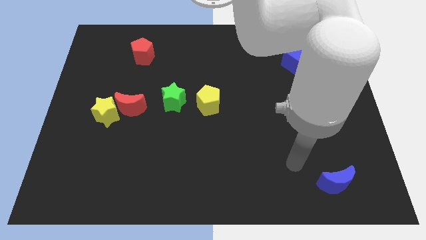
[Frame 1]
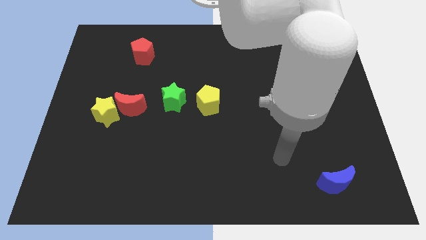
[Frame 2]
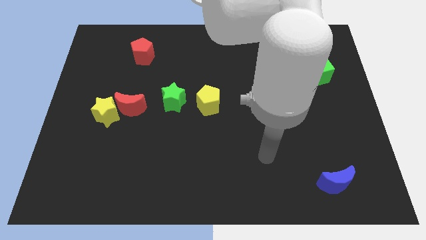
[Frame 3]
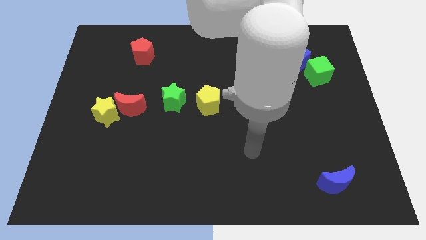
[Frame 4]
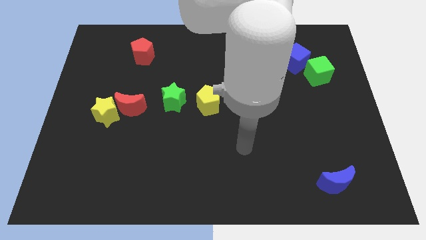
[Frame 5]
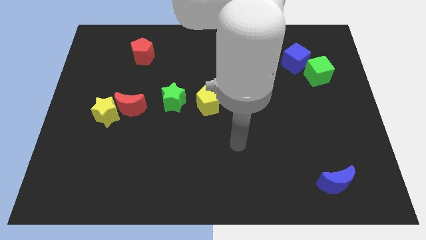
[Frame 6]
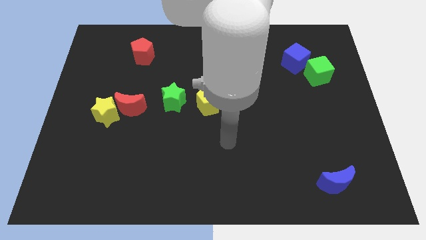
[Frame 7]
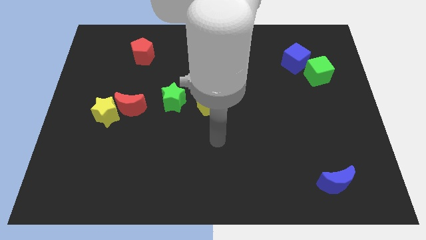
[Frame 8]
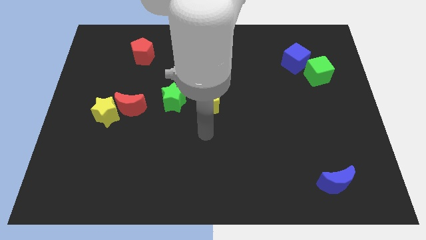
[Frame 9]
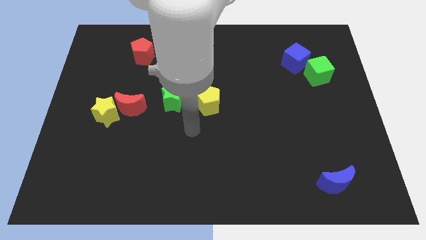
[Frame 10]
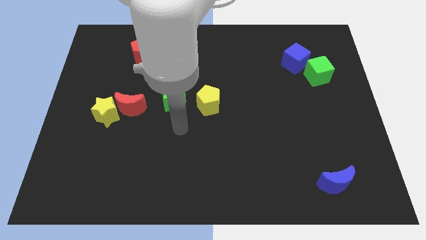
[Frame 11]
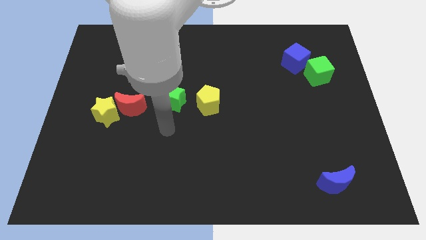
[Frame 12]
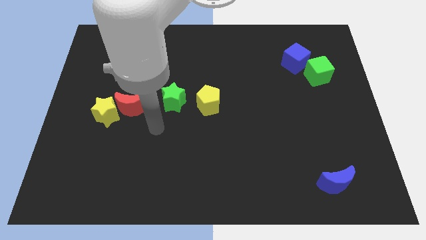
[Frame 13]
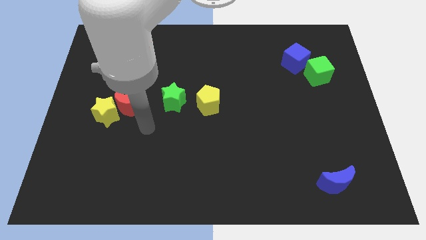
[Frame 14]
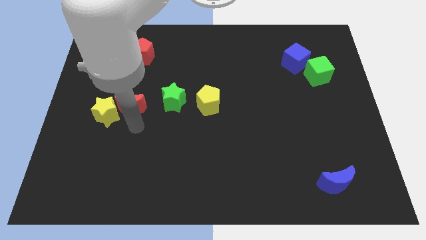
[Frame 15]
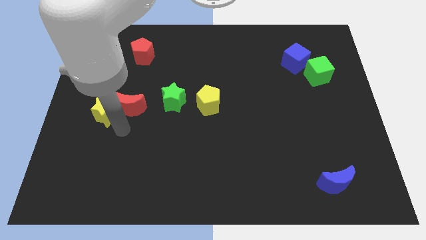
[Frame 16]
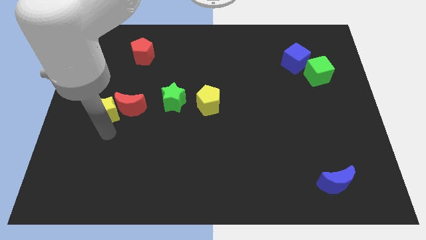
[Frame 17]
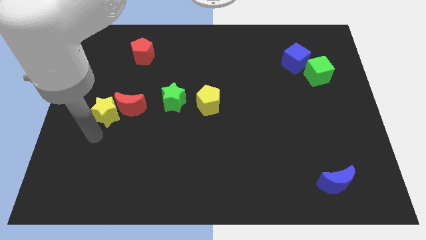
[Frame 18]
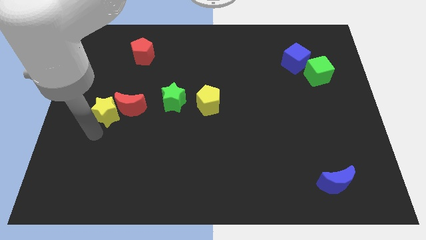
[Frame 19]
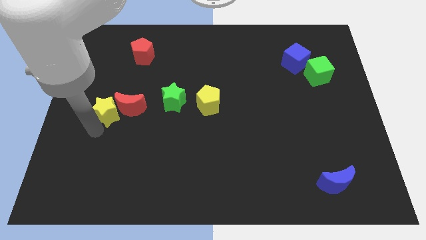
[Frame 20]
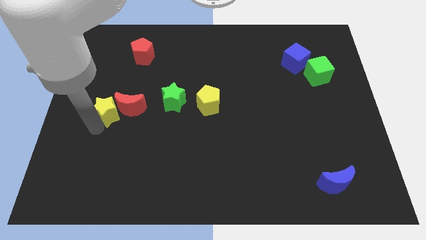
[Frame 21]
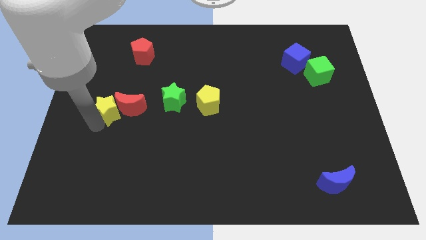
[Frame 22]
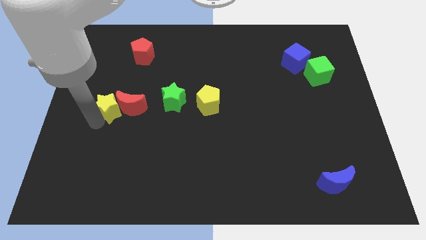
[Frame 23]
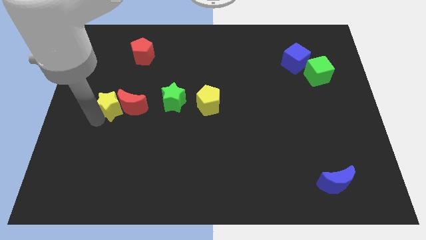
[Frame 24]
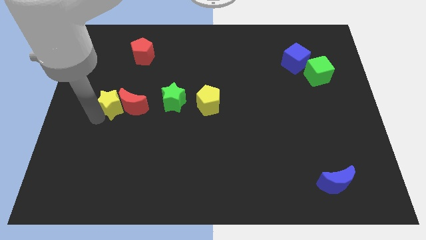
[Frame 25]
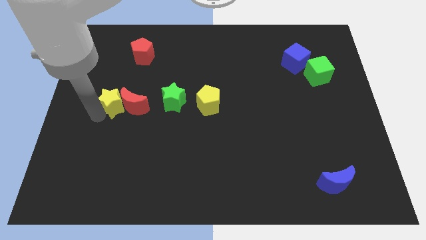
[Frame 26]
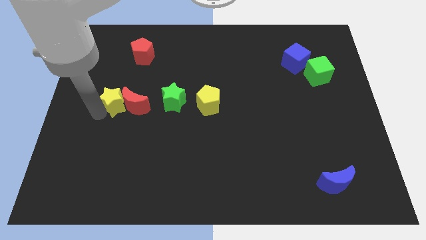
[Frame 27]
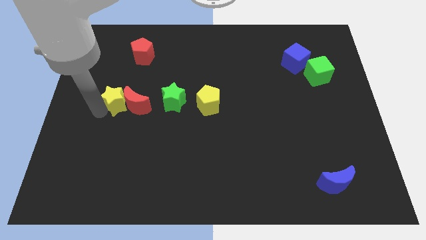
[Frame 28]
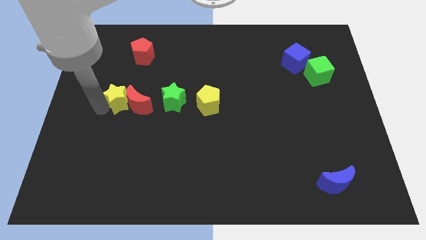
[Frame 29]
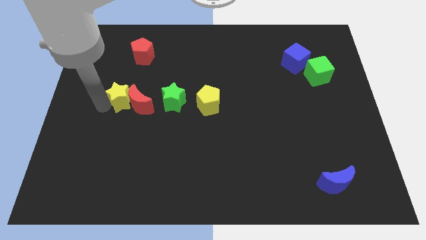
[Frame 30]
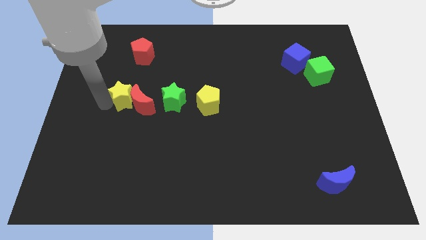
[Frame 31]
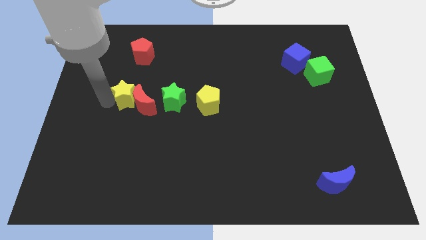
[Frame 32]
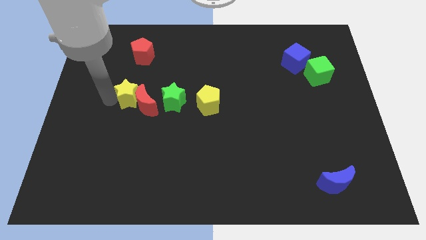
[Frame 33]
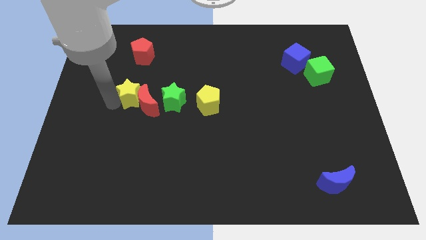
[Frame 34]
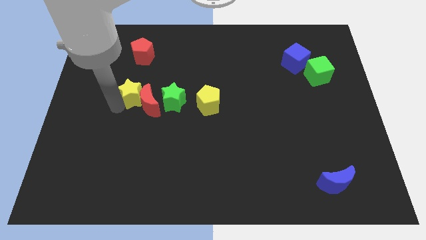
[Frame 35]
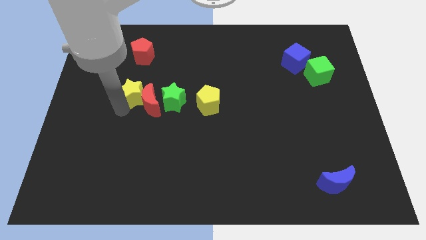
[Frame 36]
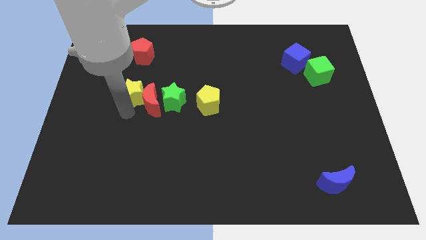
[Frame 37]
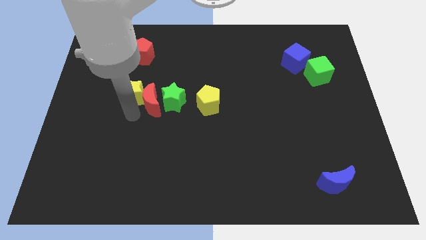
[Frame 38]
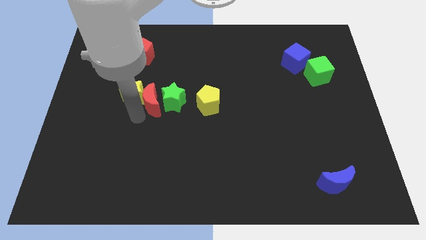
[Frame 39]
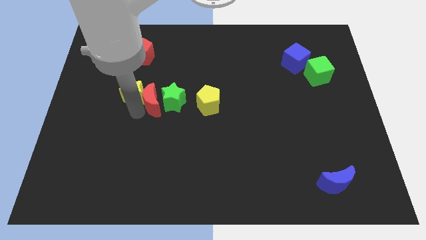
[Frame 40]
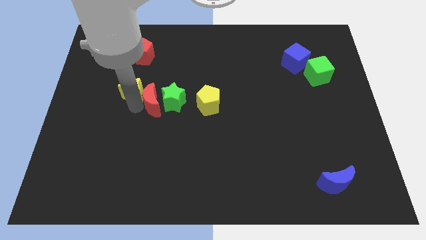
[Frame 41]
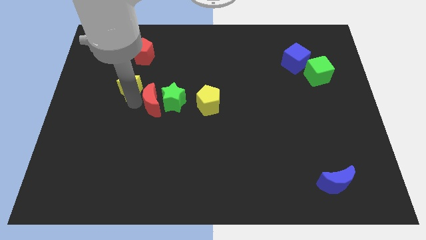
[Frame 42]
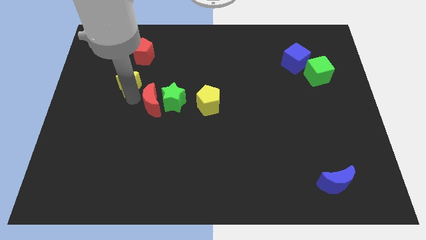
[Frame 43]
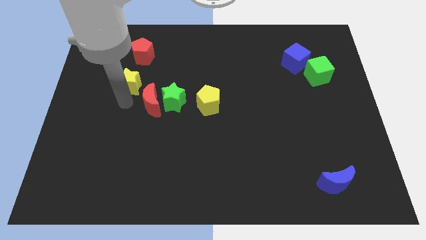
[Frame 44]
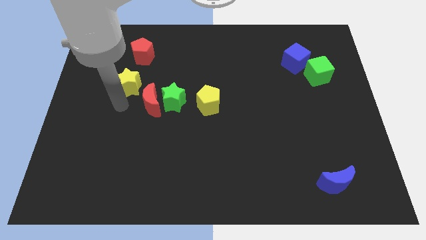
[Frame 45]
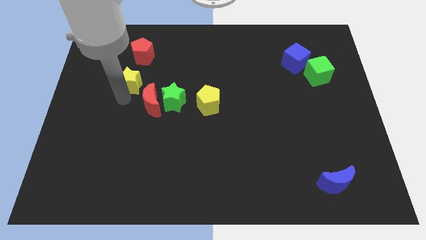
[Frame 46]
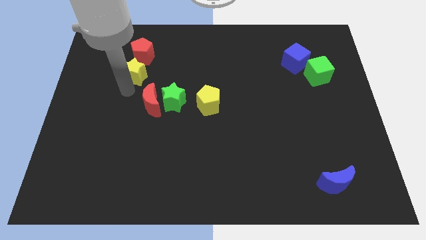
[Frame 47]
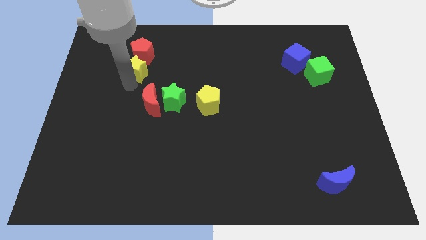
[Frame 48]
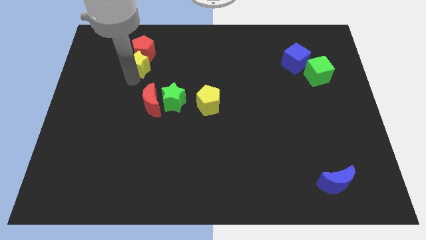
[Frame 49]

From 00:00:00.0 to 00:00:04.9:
put the yellow star to the red pentagon

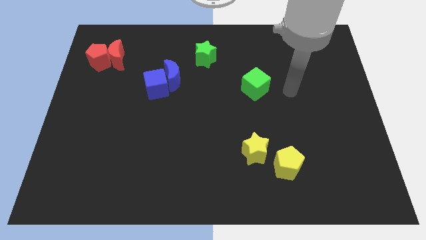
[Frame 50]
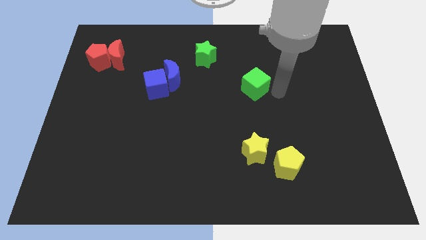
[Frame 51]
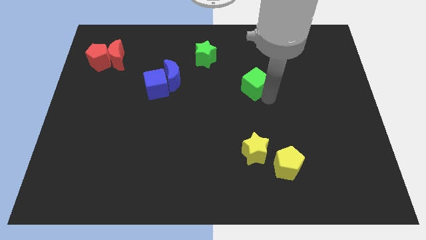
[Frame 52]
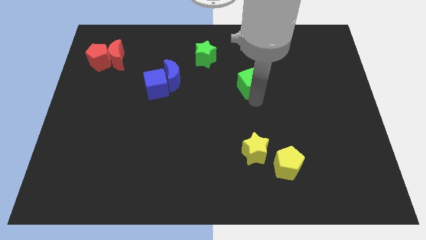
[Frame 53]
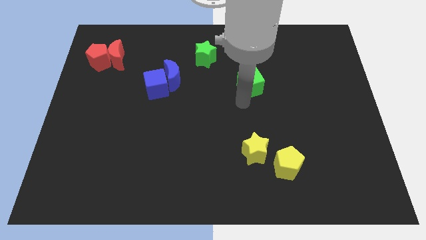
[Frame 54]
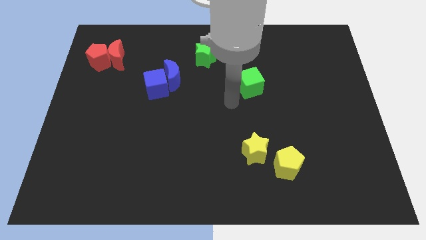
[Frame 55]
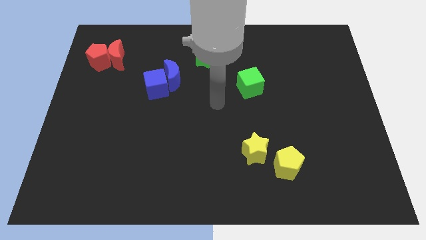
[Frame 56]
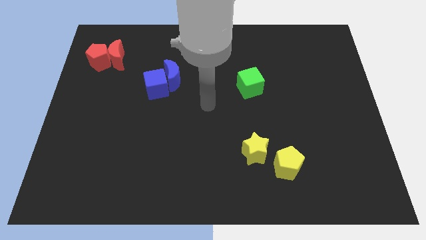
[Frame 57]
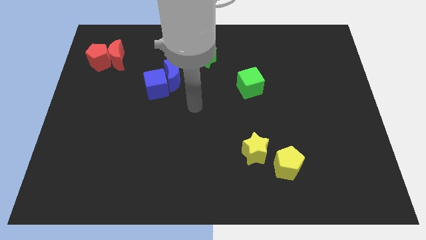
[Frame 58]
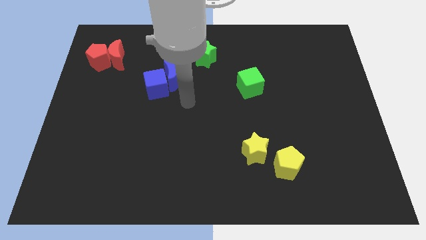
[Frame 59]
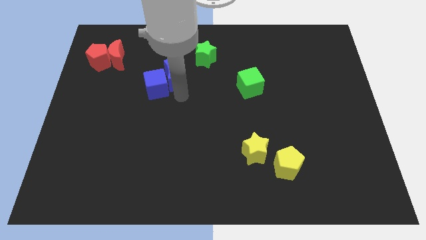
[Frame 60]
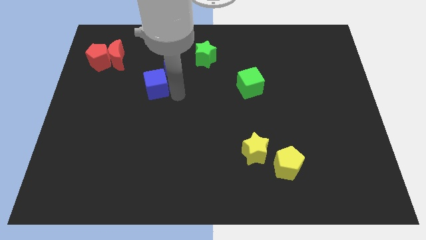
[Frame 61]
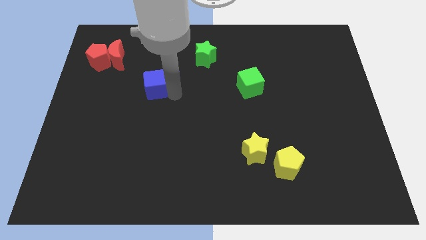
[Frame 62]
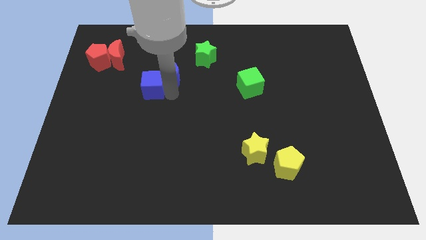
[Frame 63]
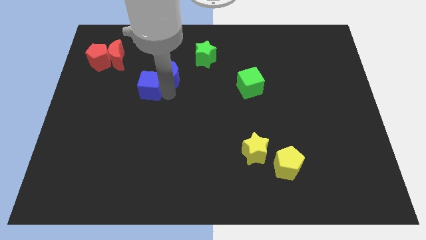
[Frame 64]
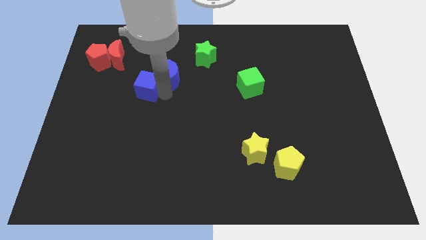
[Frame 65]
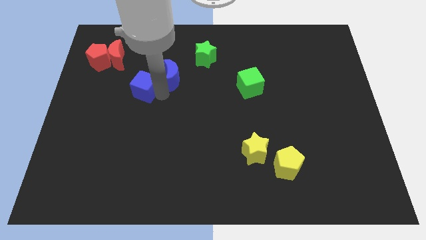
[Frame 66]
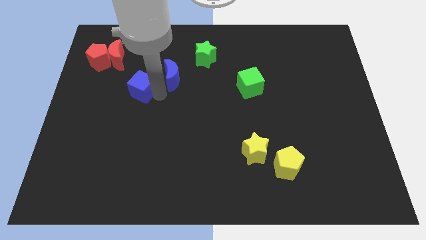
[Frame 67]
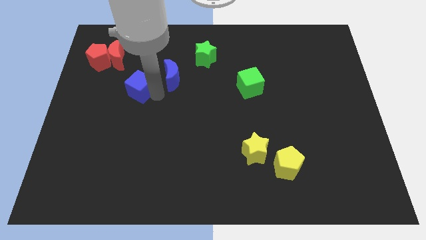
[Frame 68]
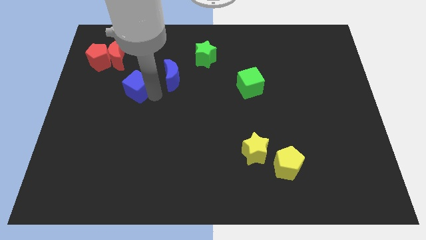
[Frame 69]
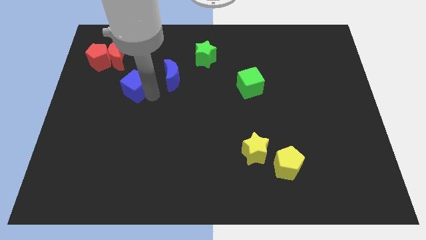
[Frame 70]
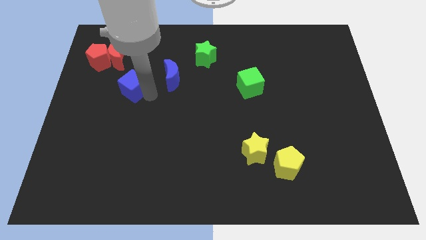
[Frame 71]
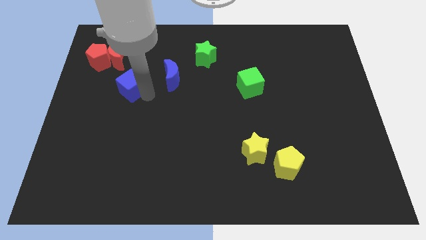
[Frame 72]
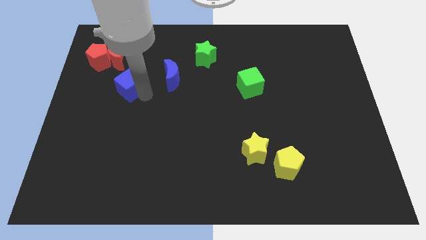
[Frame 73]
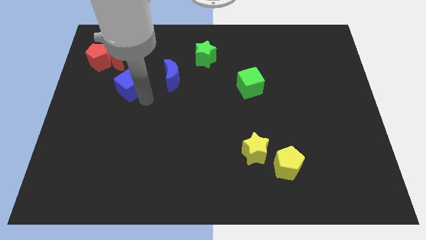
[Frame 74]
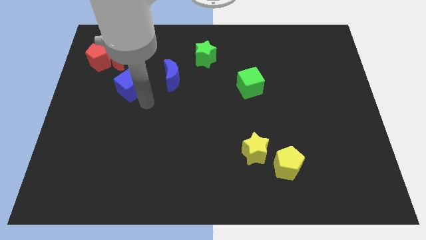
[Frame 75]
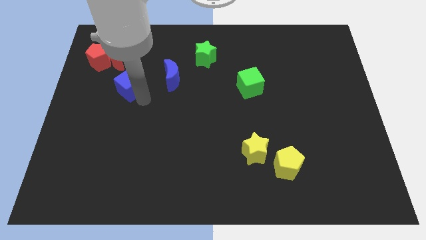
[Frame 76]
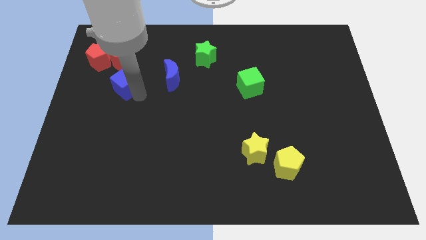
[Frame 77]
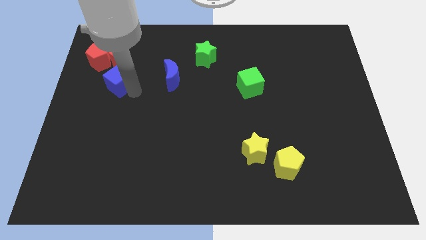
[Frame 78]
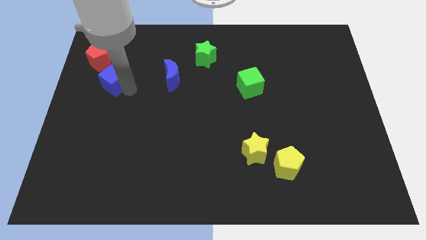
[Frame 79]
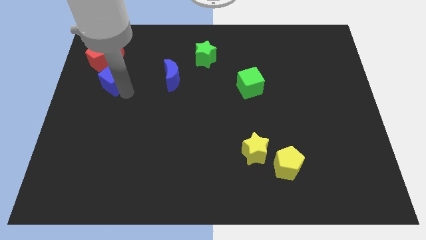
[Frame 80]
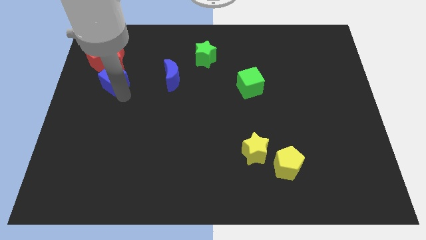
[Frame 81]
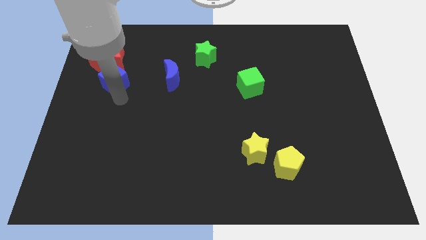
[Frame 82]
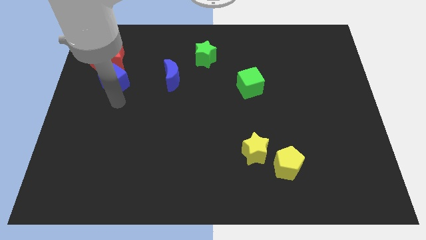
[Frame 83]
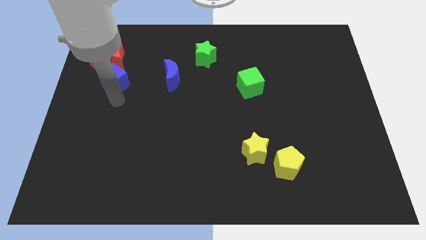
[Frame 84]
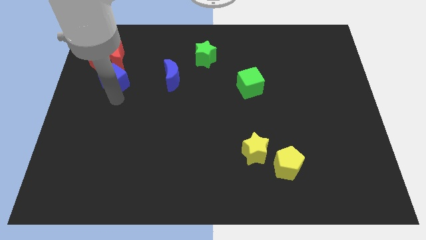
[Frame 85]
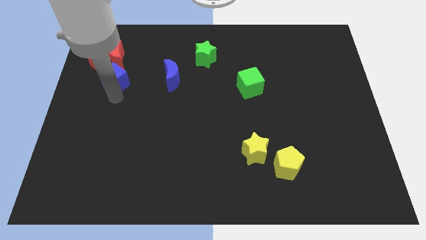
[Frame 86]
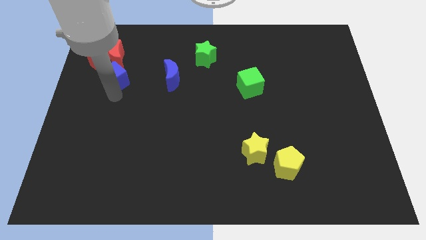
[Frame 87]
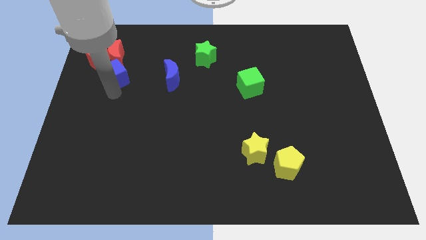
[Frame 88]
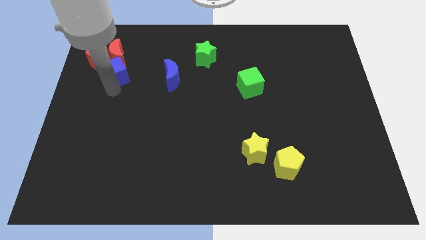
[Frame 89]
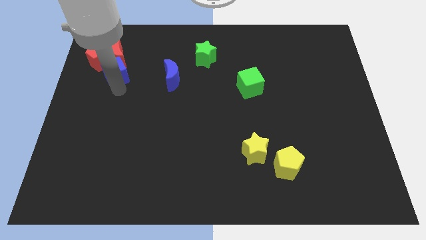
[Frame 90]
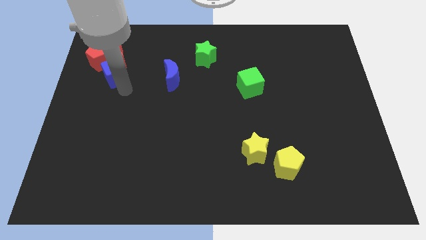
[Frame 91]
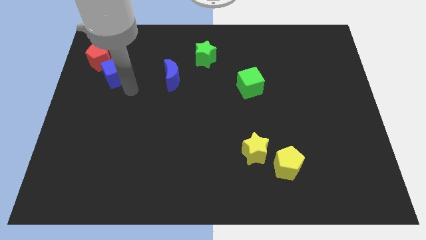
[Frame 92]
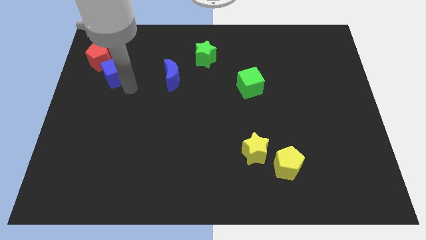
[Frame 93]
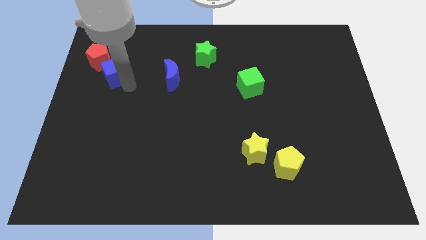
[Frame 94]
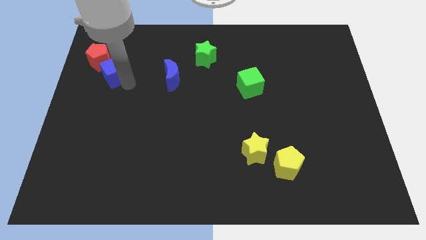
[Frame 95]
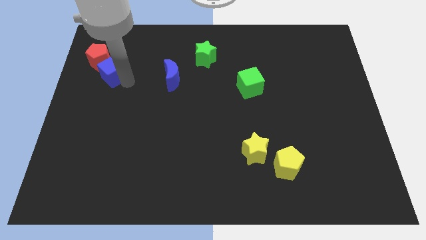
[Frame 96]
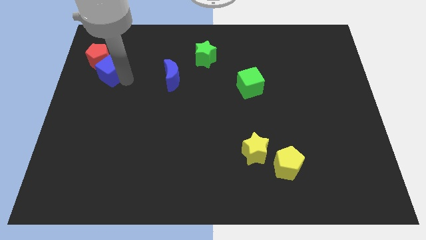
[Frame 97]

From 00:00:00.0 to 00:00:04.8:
push the blue cube close to the red pentagon
